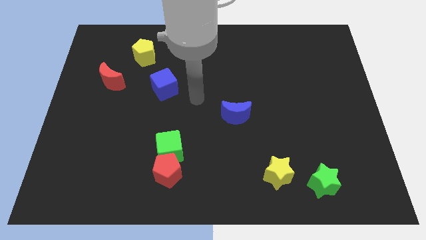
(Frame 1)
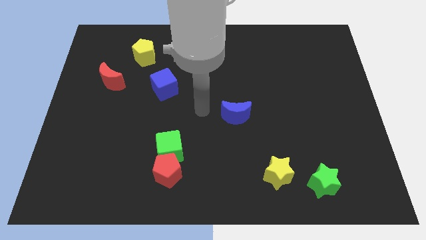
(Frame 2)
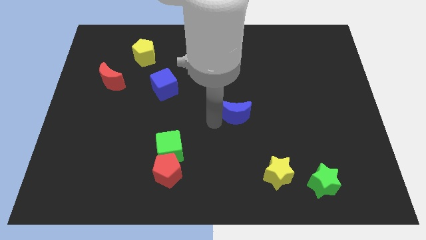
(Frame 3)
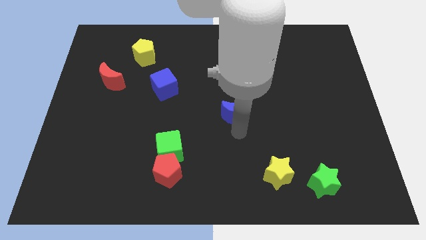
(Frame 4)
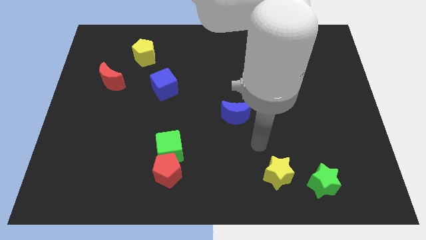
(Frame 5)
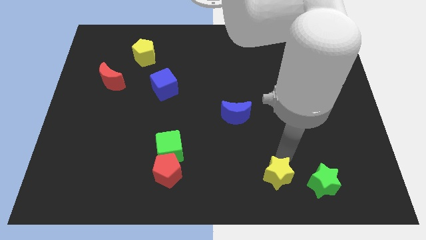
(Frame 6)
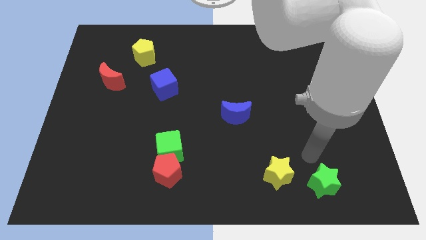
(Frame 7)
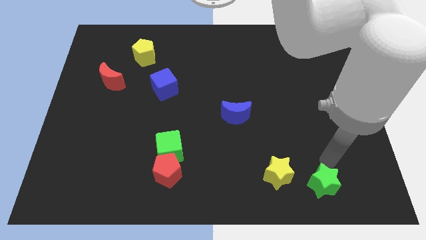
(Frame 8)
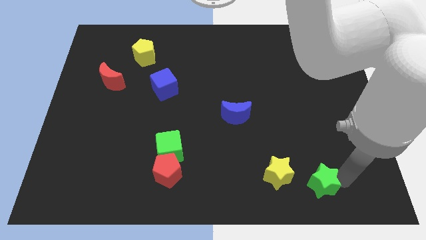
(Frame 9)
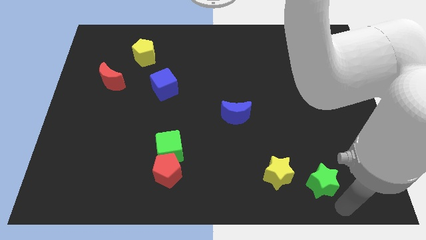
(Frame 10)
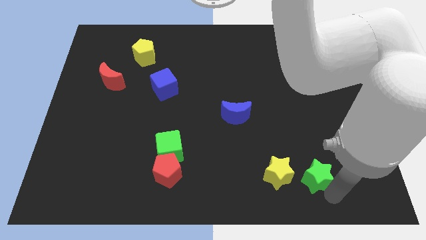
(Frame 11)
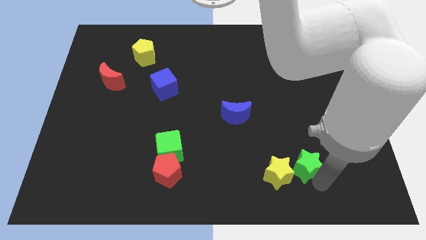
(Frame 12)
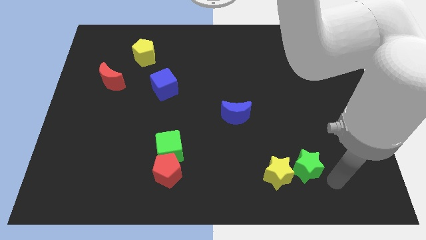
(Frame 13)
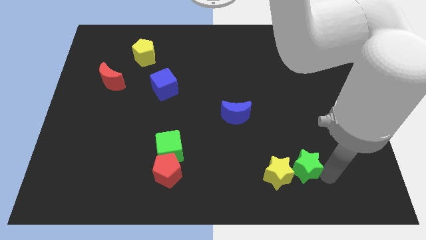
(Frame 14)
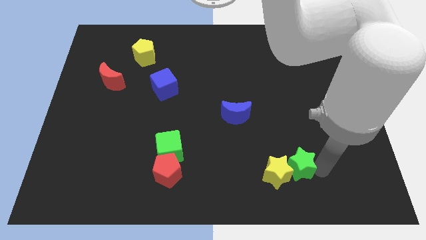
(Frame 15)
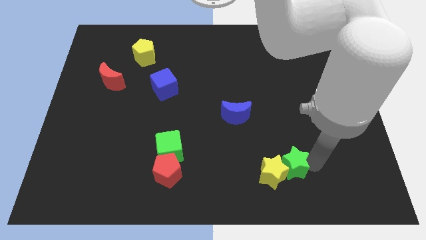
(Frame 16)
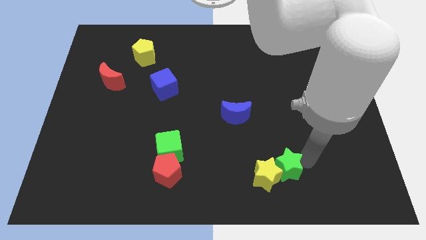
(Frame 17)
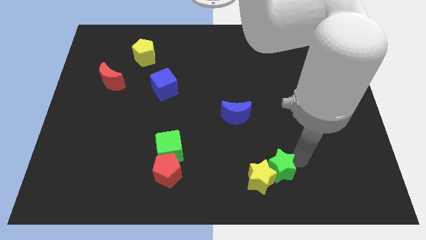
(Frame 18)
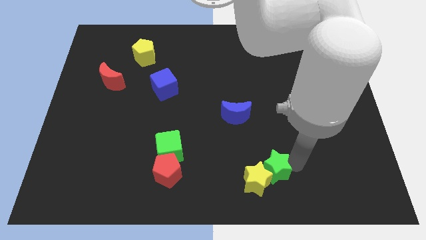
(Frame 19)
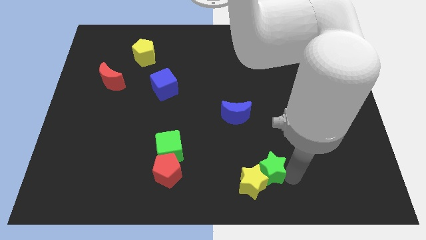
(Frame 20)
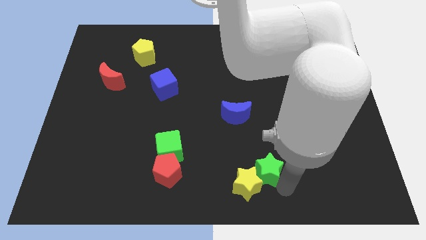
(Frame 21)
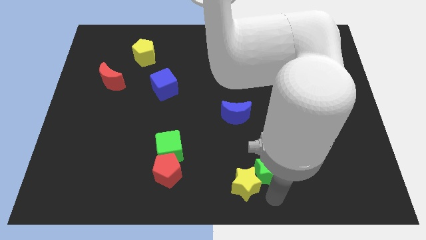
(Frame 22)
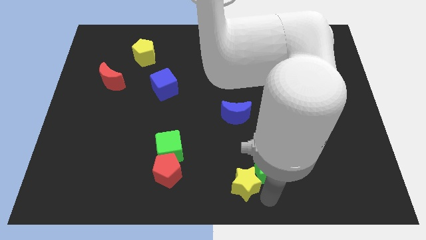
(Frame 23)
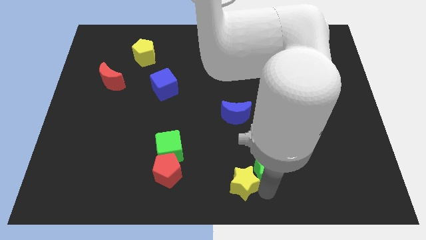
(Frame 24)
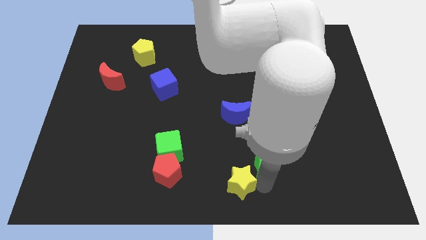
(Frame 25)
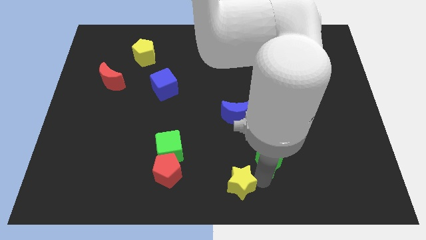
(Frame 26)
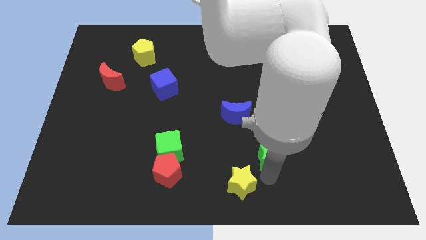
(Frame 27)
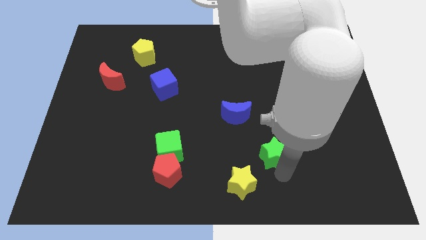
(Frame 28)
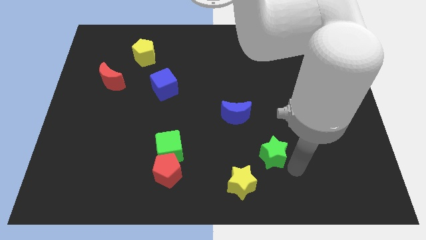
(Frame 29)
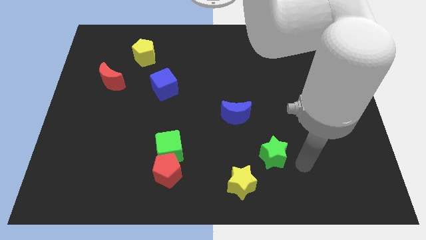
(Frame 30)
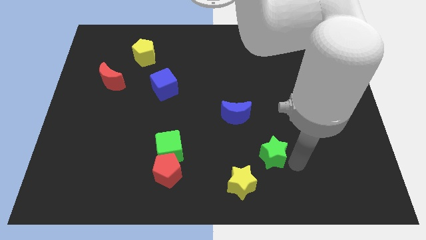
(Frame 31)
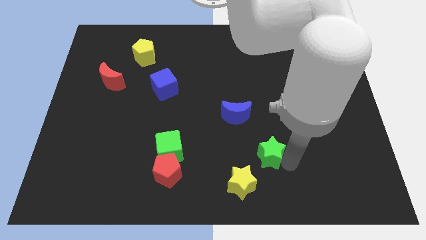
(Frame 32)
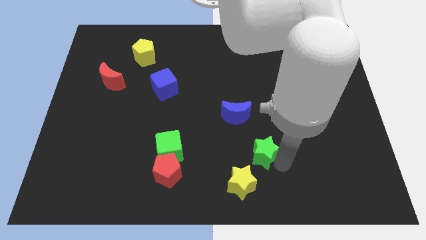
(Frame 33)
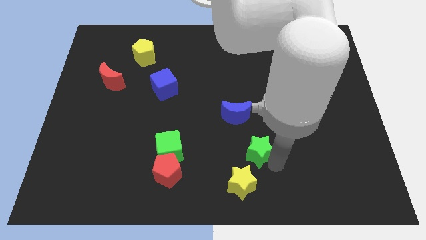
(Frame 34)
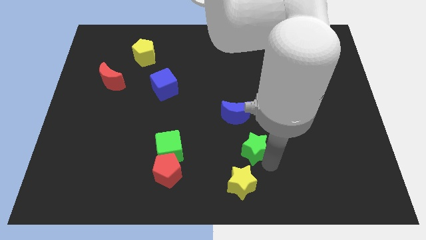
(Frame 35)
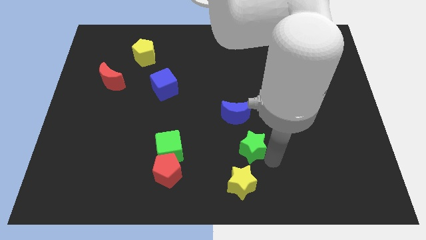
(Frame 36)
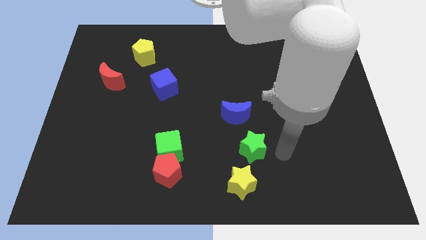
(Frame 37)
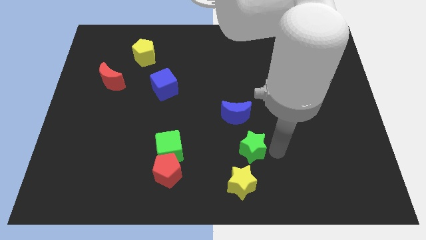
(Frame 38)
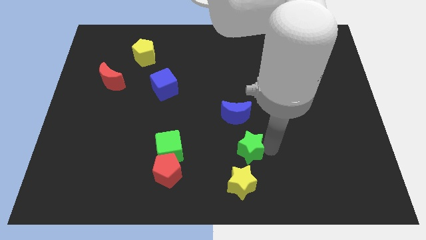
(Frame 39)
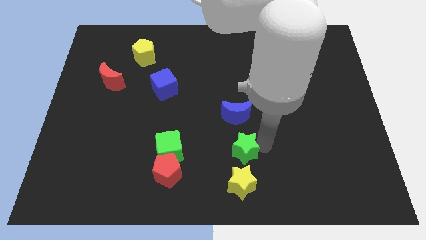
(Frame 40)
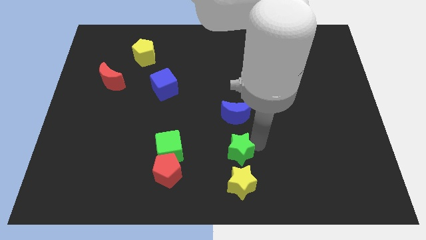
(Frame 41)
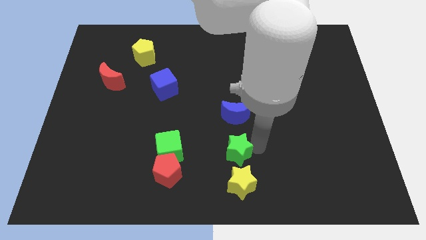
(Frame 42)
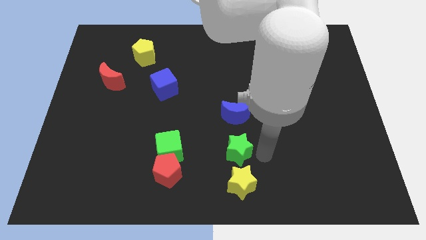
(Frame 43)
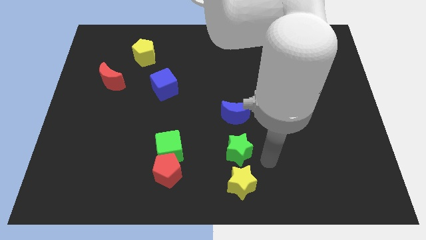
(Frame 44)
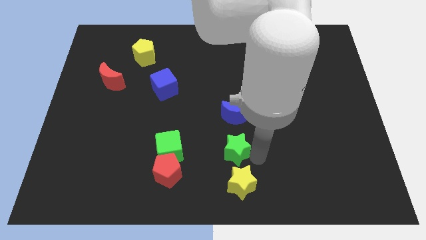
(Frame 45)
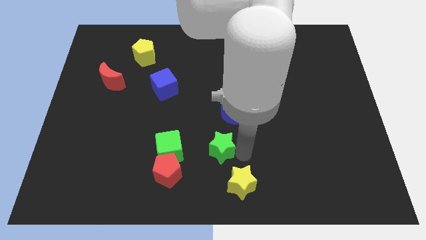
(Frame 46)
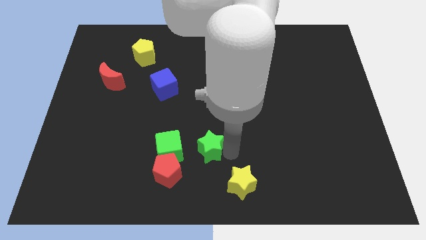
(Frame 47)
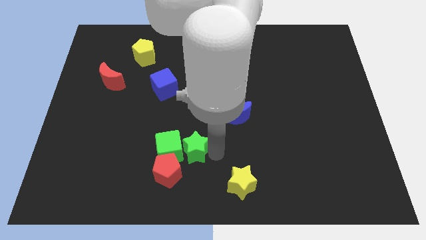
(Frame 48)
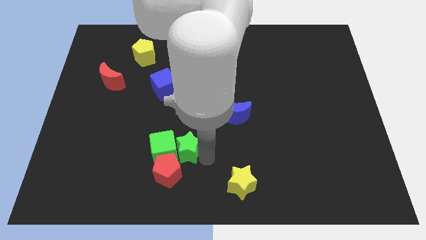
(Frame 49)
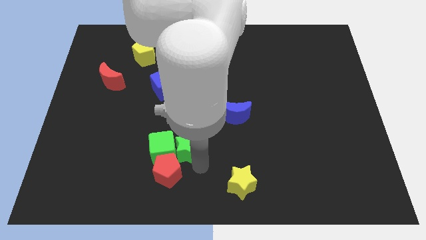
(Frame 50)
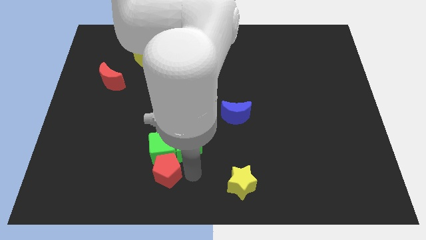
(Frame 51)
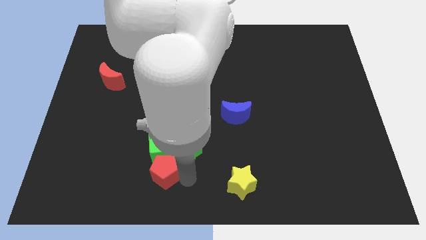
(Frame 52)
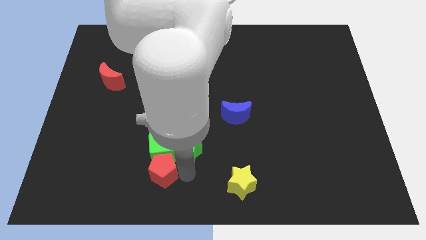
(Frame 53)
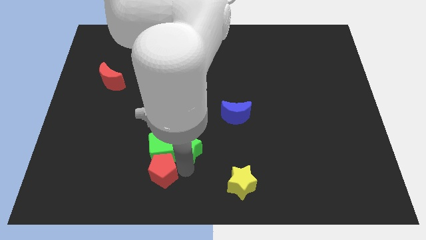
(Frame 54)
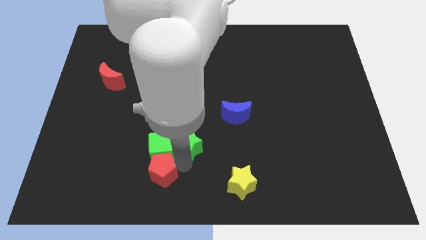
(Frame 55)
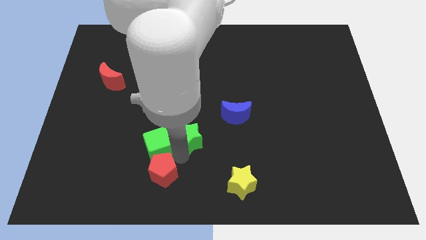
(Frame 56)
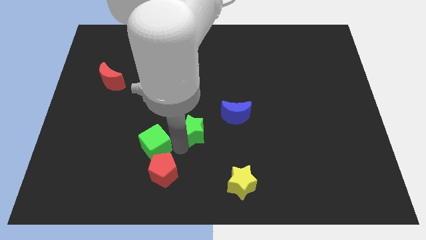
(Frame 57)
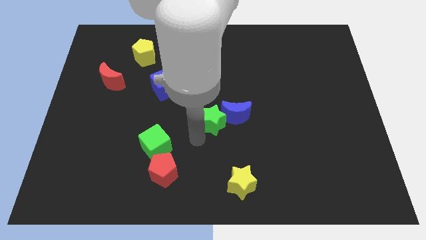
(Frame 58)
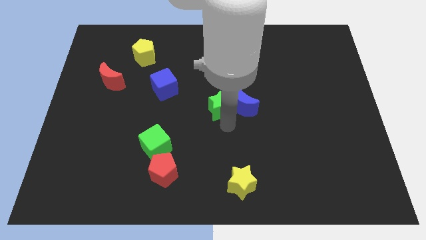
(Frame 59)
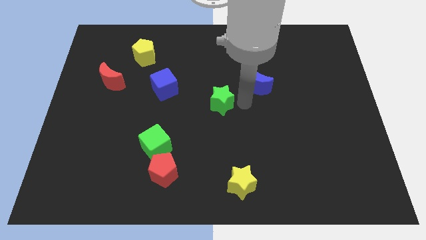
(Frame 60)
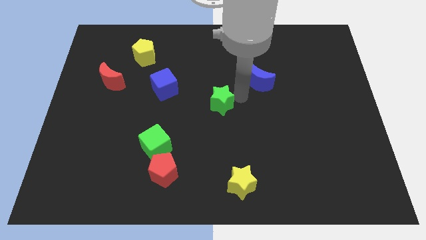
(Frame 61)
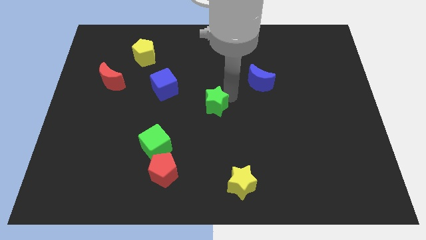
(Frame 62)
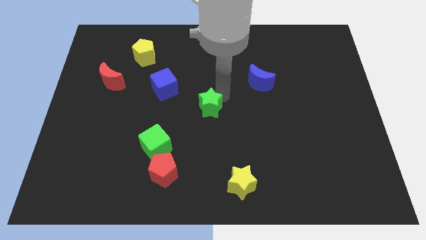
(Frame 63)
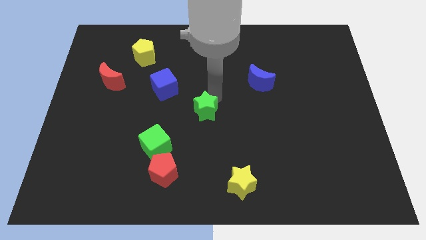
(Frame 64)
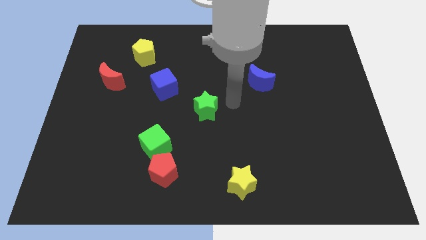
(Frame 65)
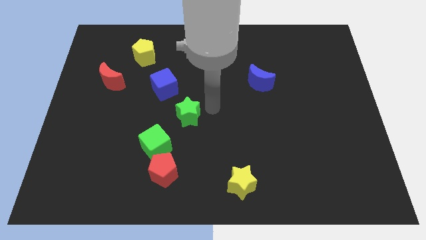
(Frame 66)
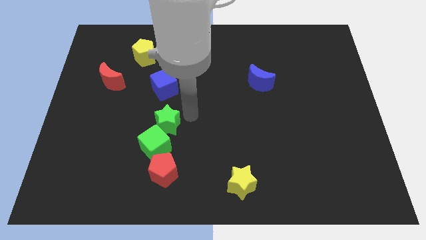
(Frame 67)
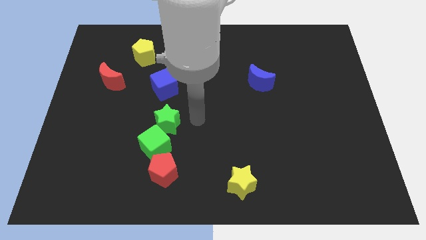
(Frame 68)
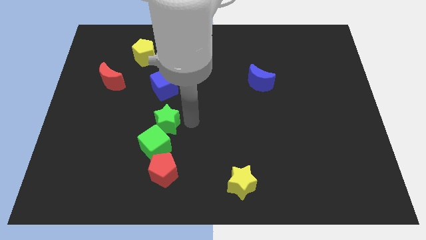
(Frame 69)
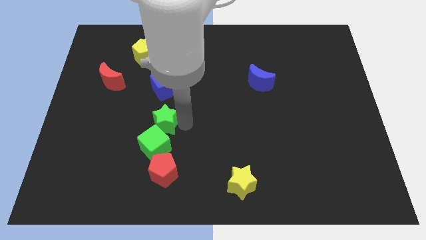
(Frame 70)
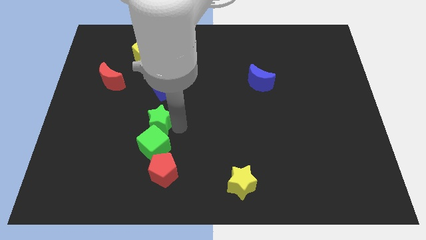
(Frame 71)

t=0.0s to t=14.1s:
move the green star to the top left of the green cube
